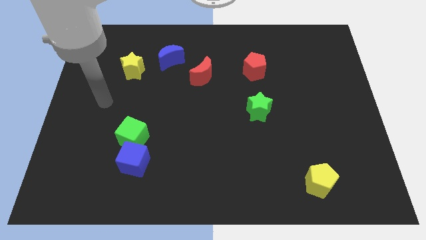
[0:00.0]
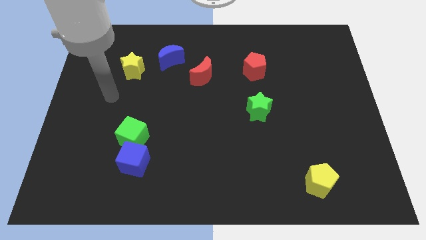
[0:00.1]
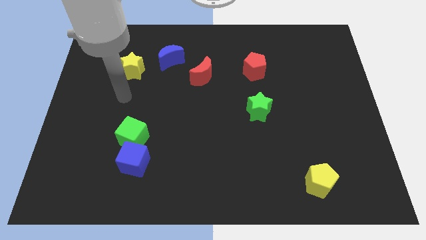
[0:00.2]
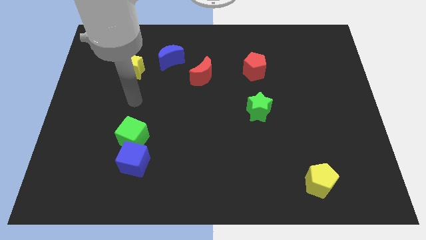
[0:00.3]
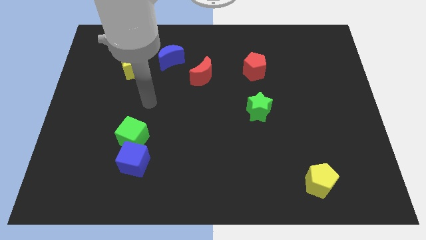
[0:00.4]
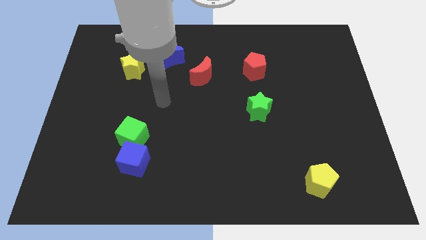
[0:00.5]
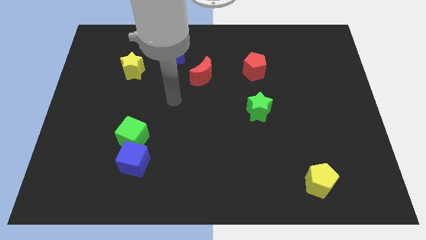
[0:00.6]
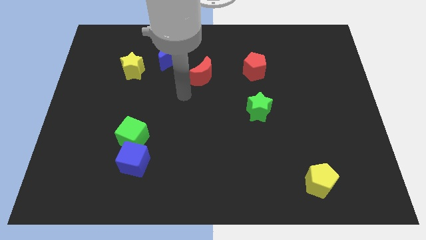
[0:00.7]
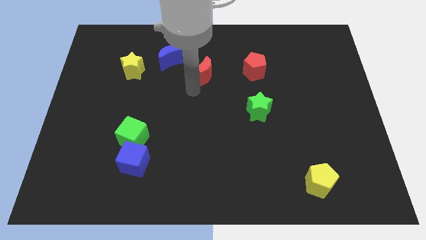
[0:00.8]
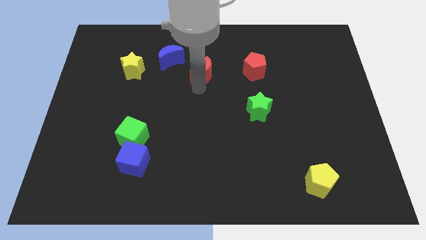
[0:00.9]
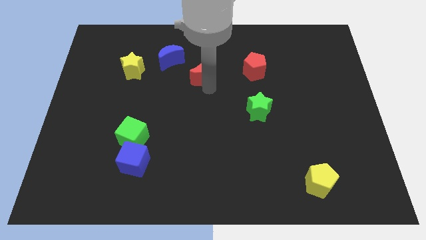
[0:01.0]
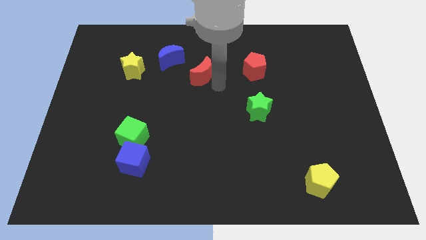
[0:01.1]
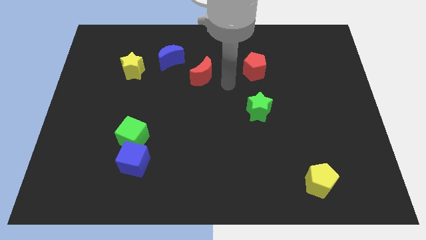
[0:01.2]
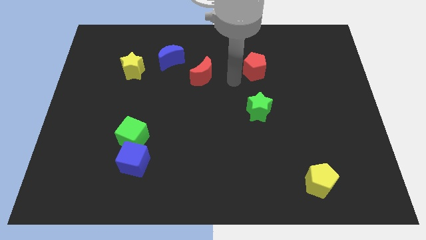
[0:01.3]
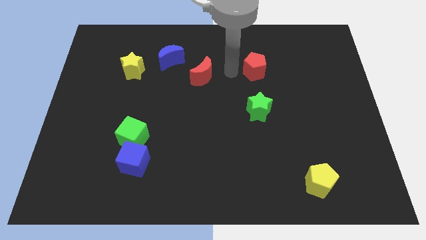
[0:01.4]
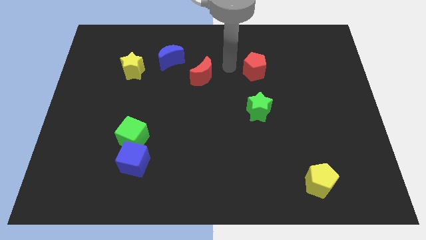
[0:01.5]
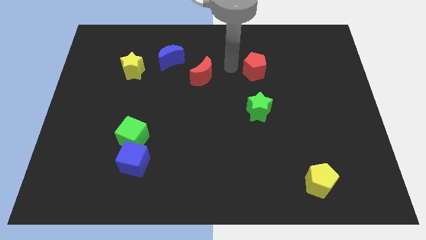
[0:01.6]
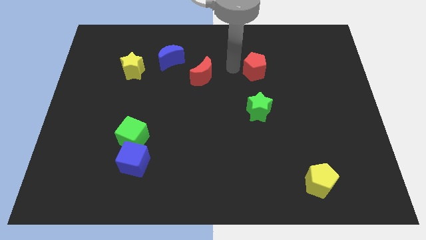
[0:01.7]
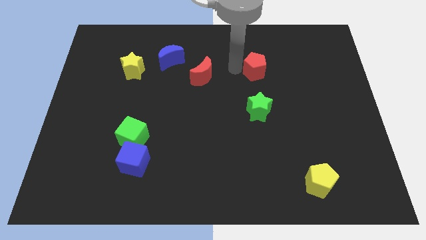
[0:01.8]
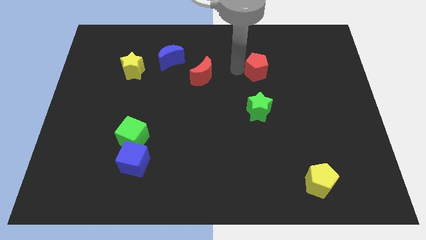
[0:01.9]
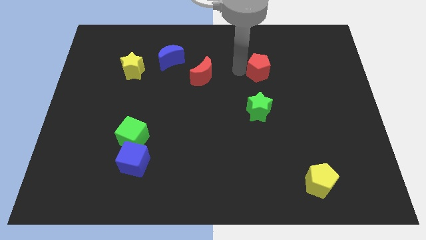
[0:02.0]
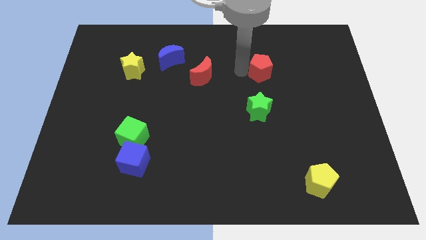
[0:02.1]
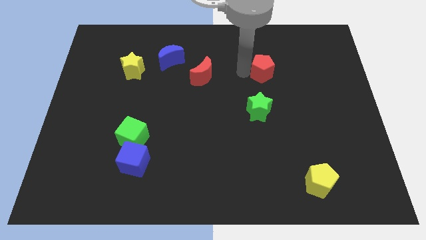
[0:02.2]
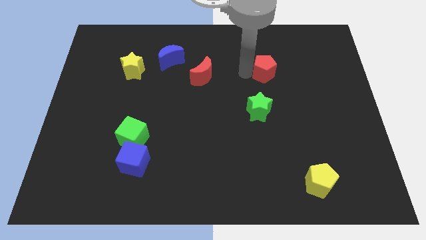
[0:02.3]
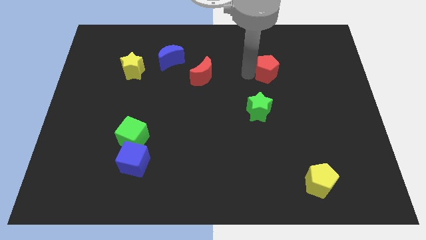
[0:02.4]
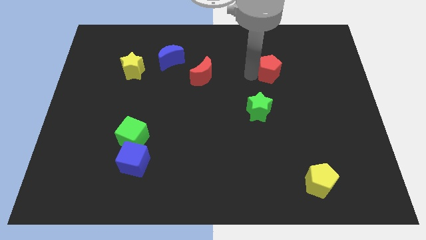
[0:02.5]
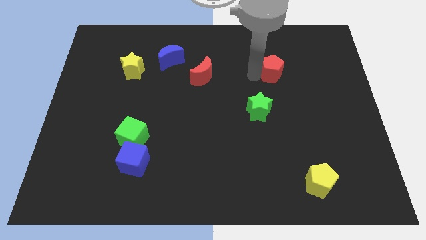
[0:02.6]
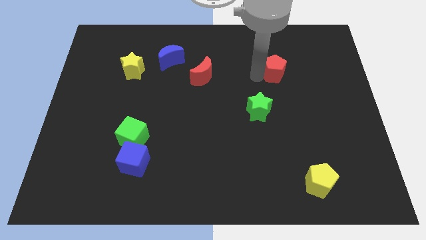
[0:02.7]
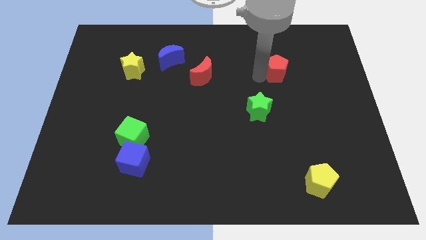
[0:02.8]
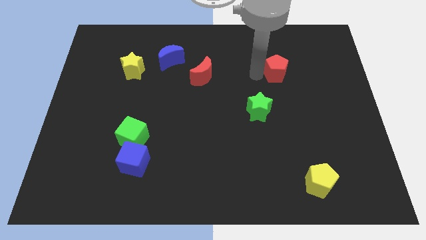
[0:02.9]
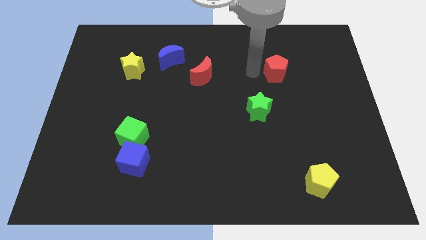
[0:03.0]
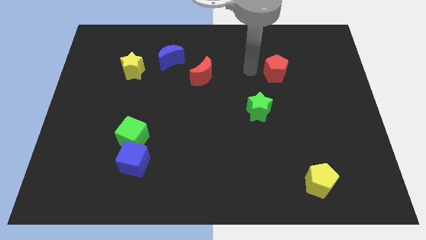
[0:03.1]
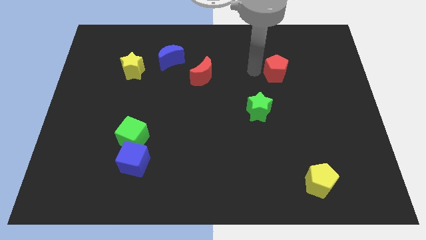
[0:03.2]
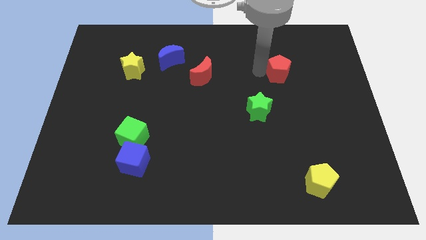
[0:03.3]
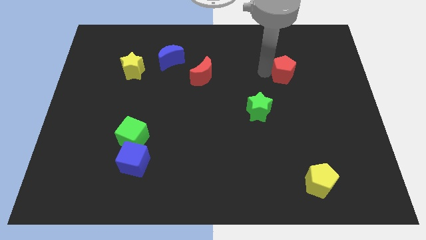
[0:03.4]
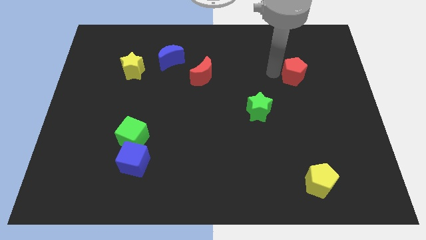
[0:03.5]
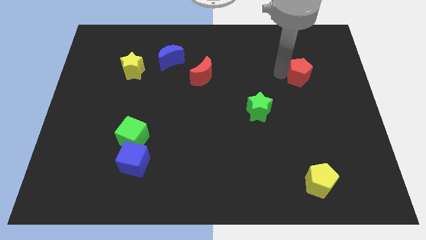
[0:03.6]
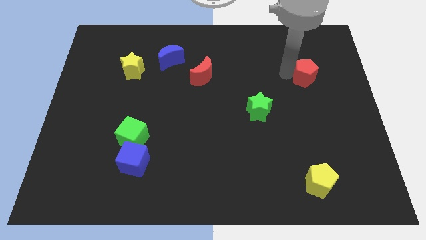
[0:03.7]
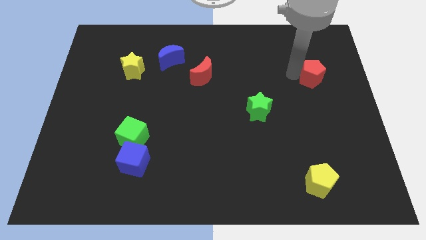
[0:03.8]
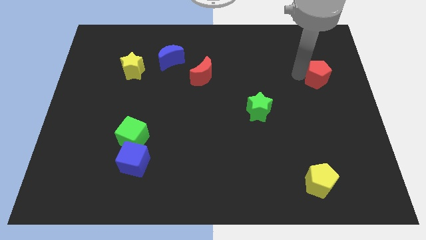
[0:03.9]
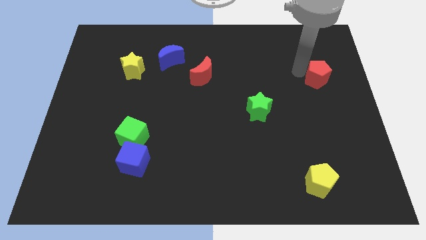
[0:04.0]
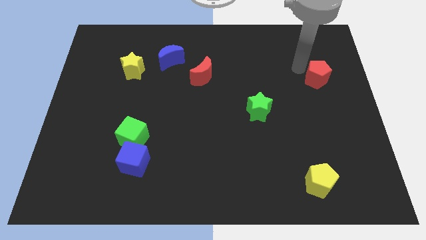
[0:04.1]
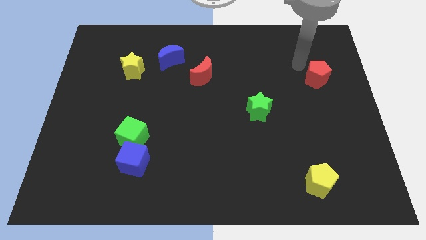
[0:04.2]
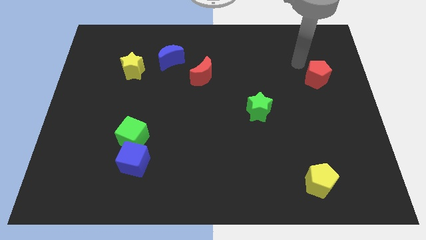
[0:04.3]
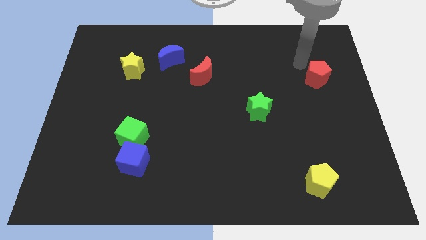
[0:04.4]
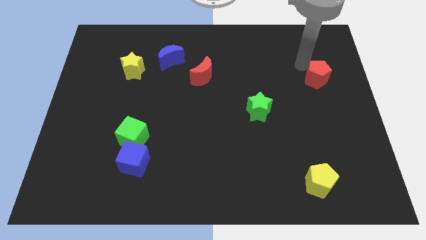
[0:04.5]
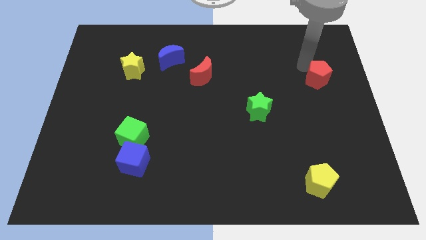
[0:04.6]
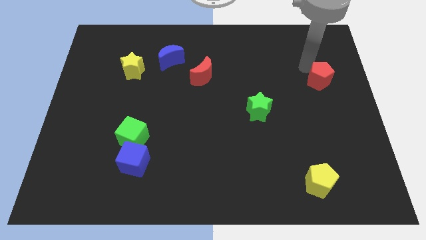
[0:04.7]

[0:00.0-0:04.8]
move the red pentagon to the right side

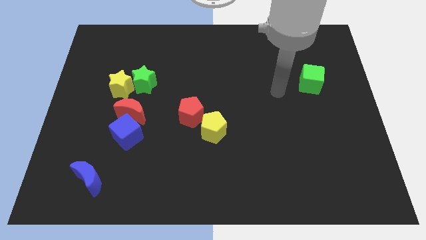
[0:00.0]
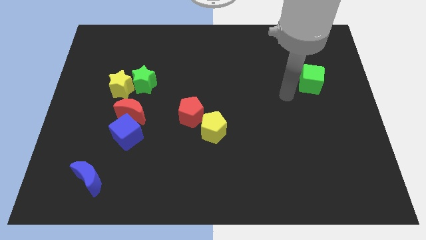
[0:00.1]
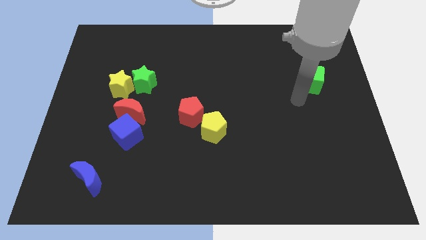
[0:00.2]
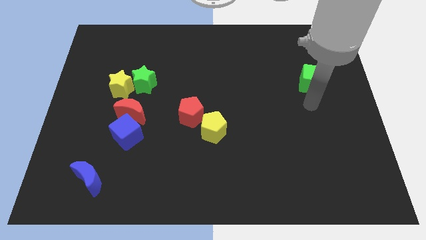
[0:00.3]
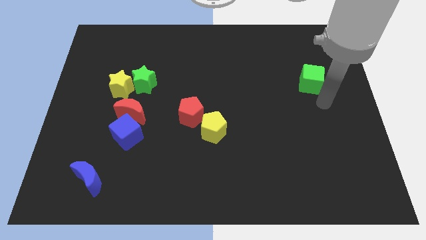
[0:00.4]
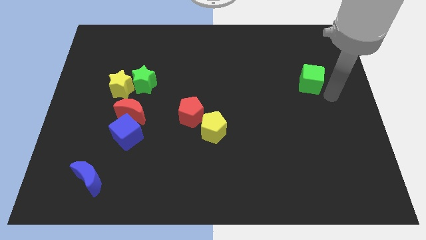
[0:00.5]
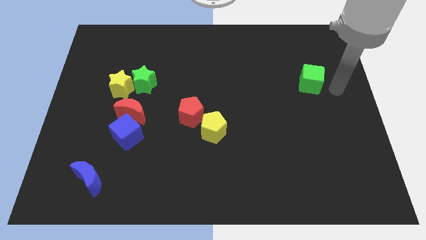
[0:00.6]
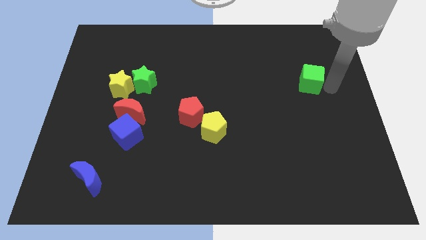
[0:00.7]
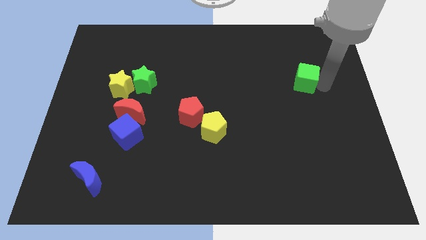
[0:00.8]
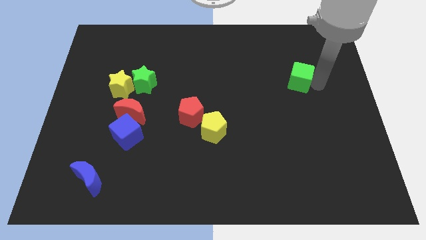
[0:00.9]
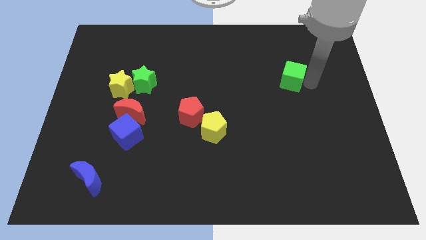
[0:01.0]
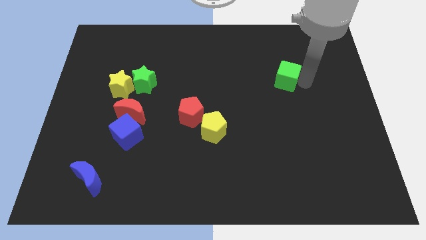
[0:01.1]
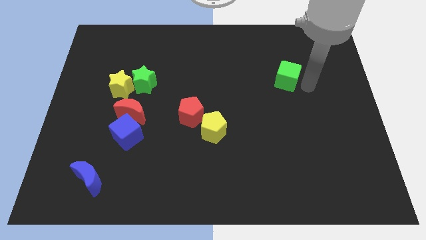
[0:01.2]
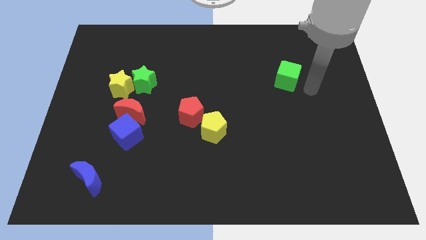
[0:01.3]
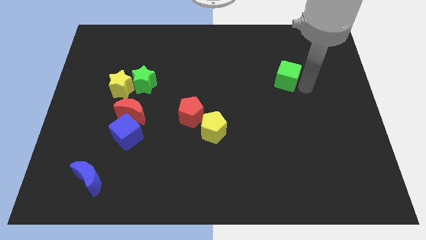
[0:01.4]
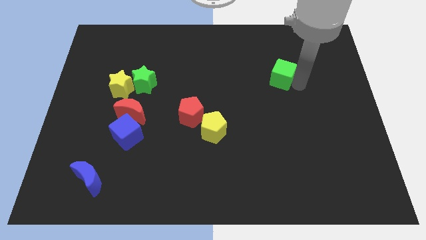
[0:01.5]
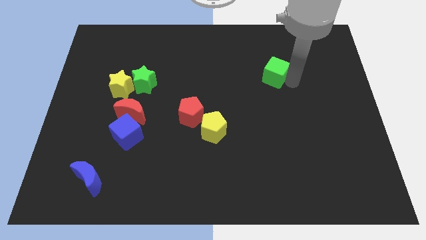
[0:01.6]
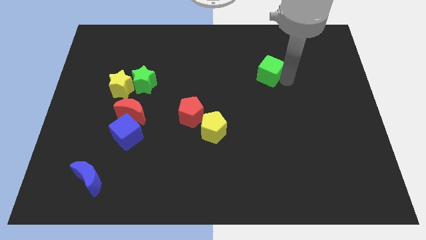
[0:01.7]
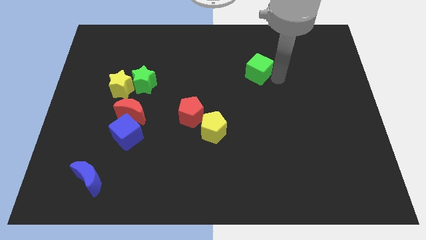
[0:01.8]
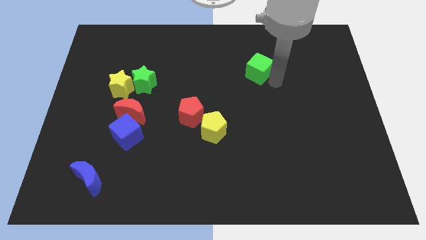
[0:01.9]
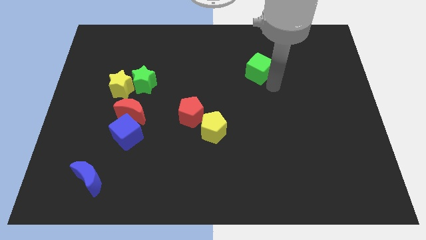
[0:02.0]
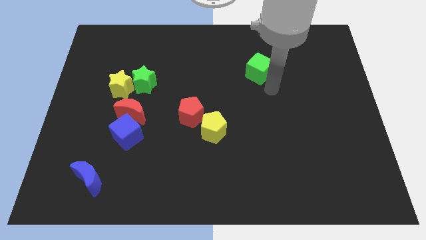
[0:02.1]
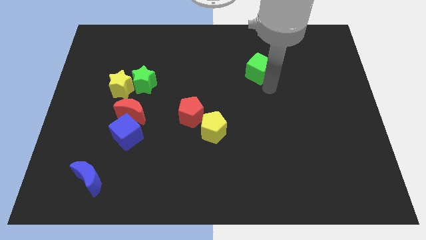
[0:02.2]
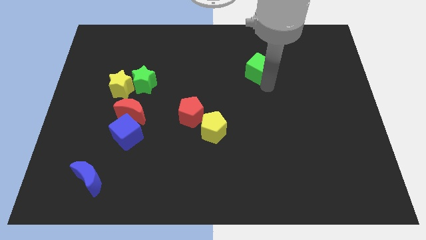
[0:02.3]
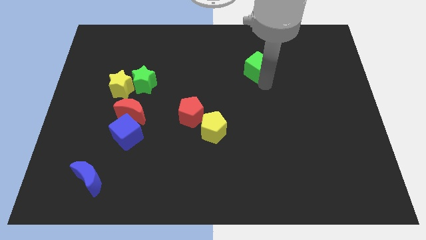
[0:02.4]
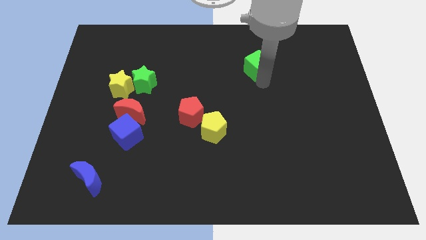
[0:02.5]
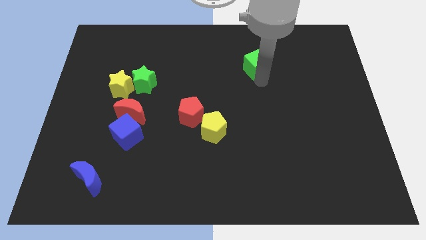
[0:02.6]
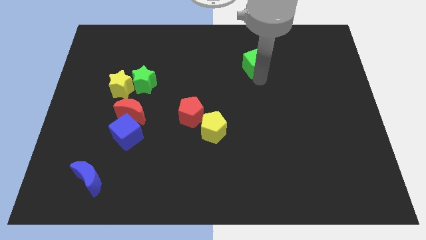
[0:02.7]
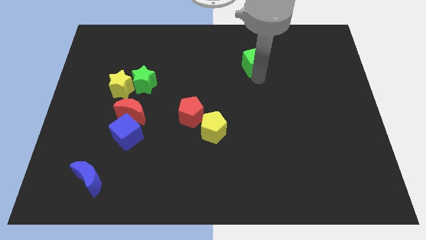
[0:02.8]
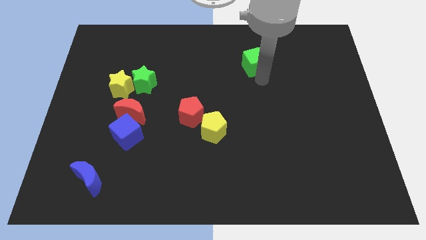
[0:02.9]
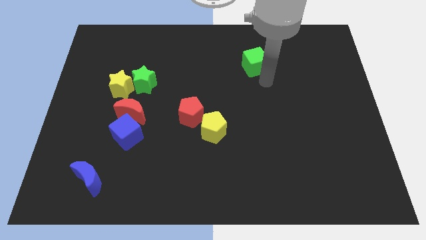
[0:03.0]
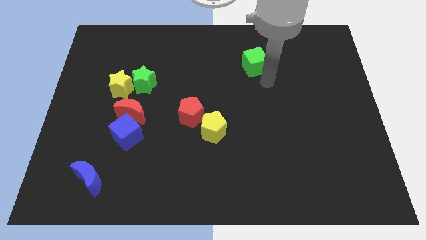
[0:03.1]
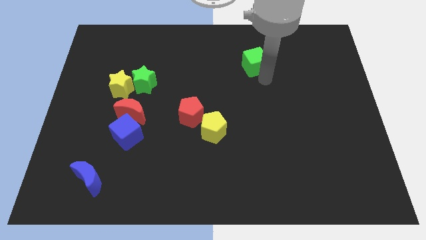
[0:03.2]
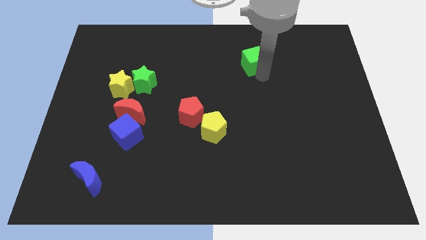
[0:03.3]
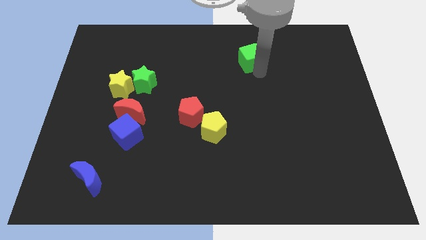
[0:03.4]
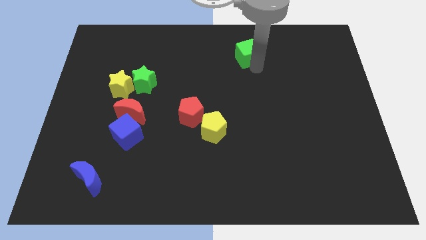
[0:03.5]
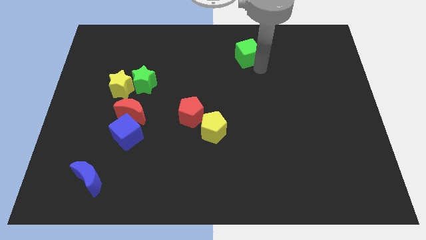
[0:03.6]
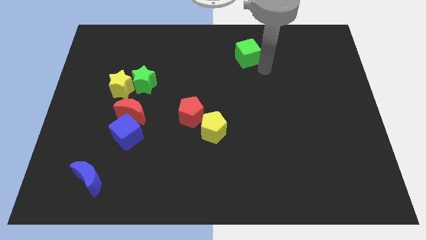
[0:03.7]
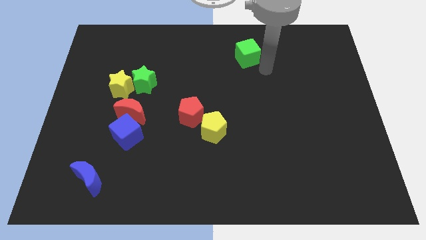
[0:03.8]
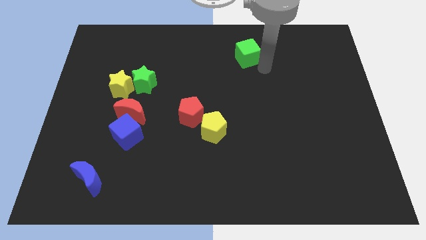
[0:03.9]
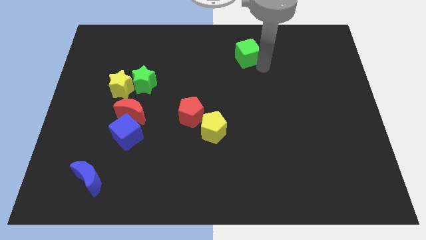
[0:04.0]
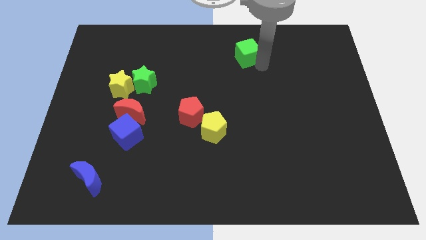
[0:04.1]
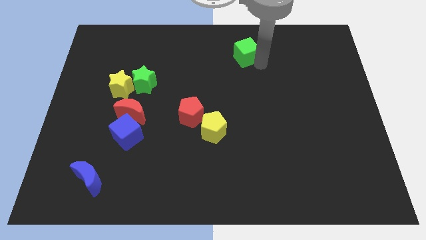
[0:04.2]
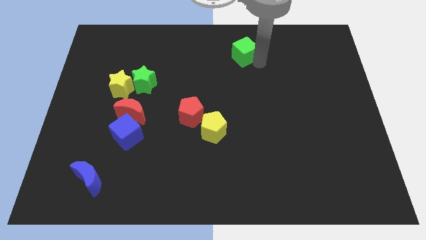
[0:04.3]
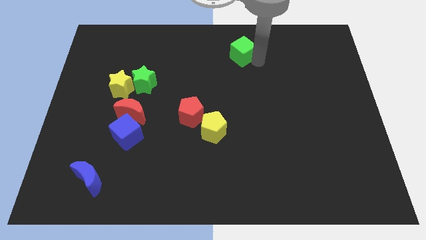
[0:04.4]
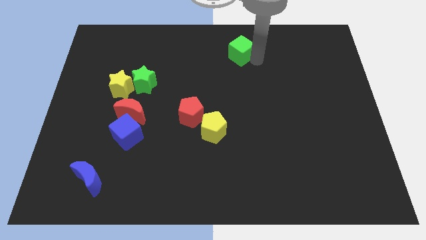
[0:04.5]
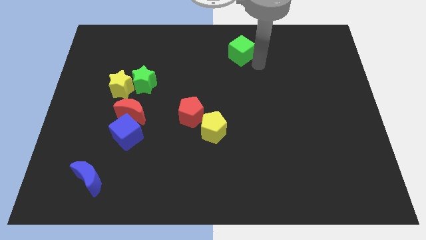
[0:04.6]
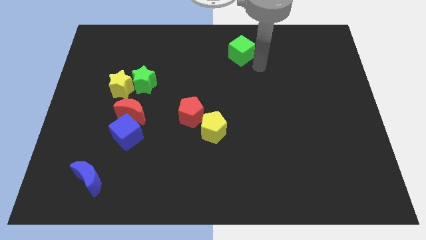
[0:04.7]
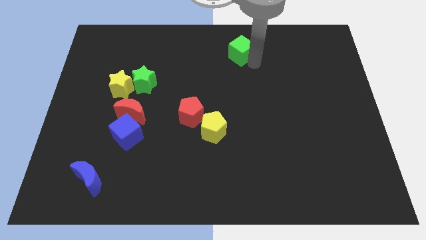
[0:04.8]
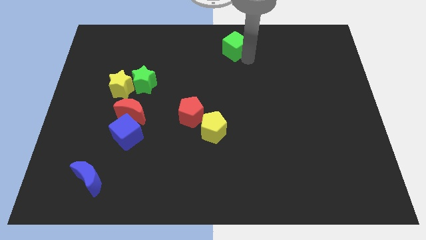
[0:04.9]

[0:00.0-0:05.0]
move the green cube to the top side
